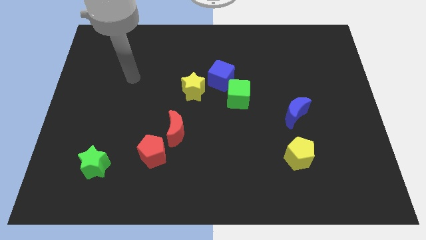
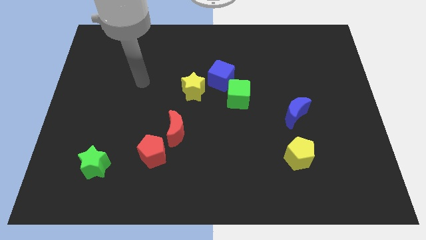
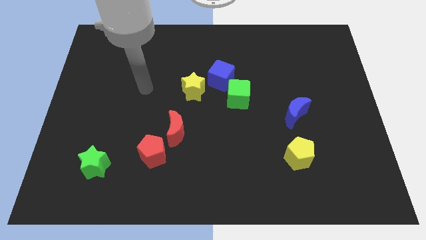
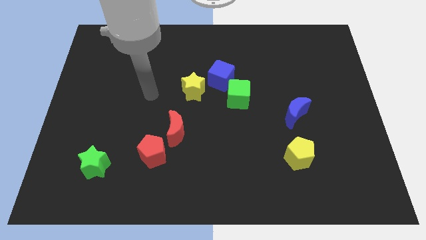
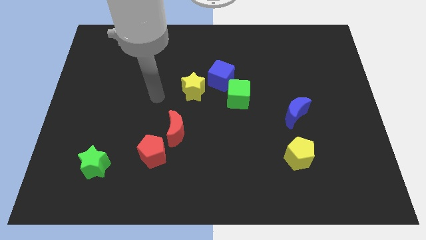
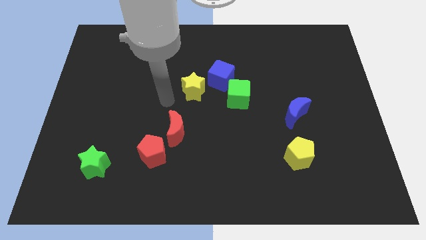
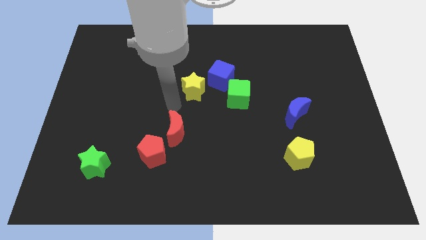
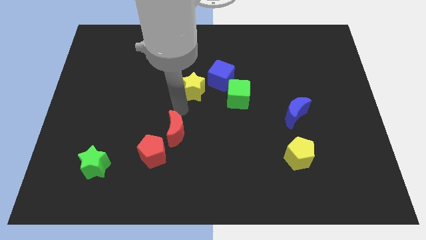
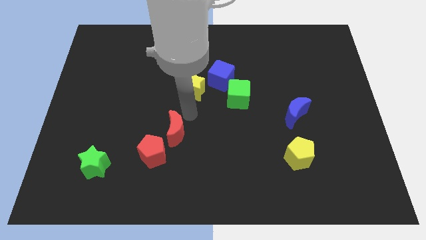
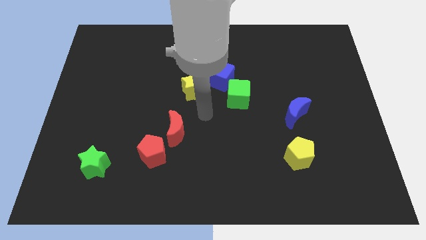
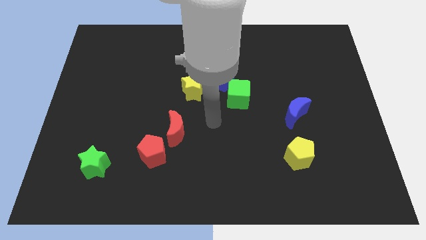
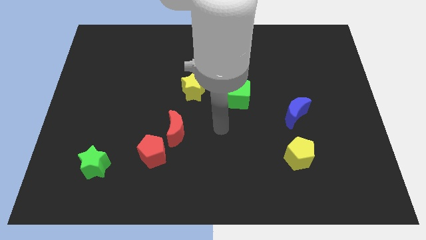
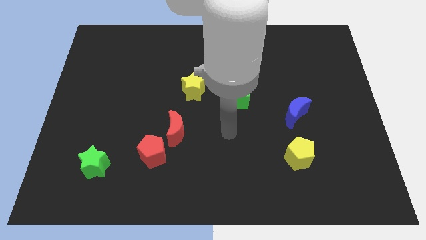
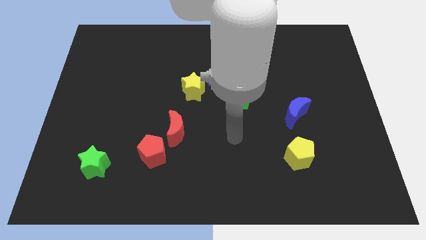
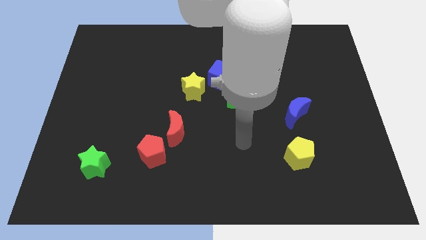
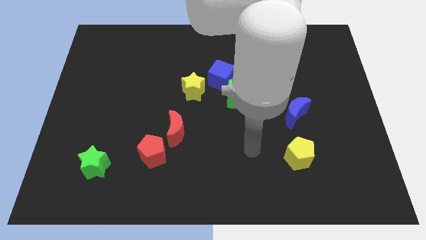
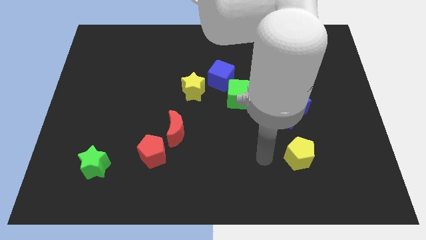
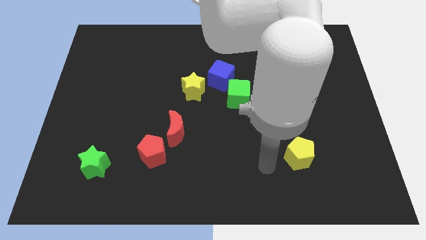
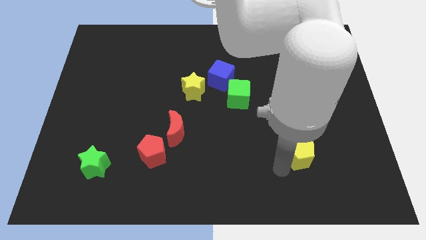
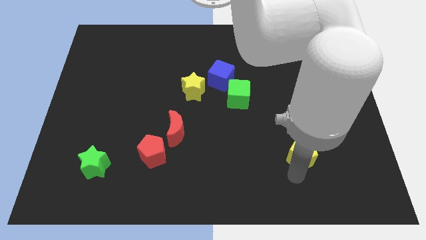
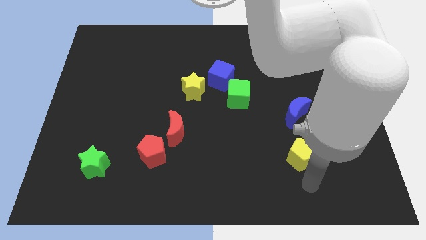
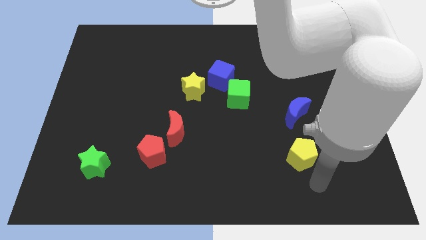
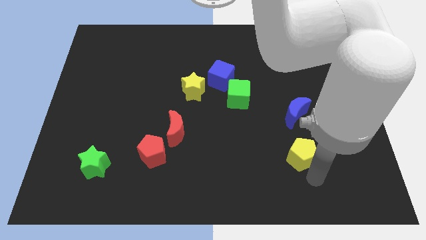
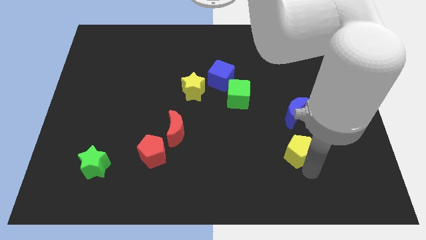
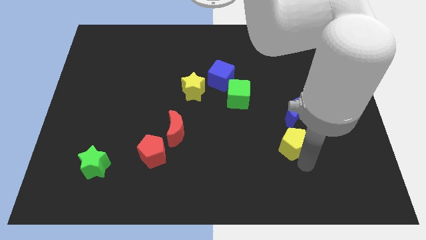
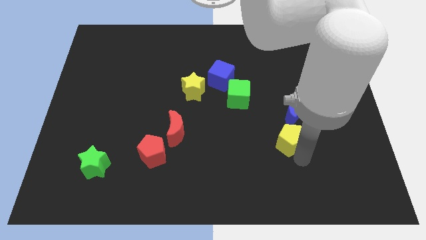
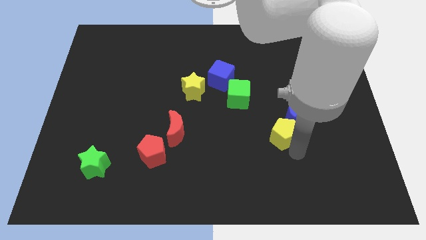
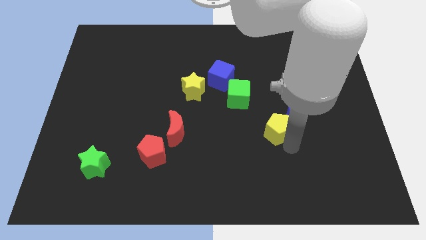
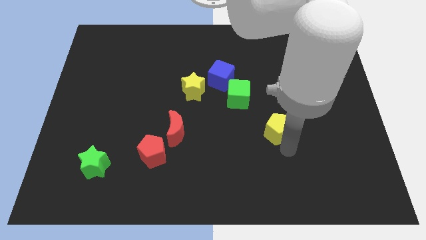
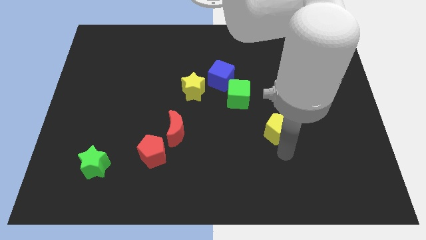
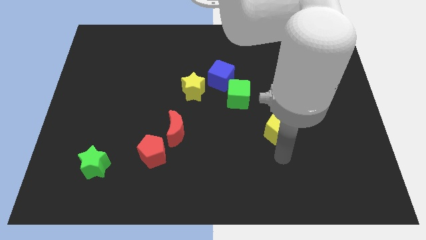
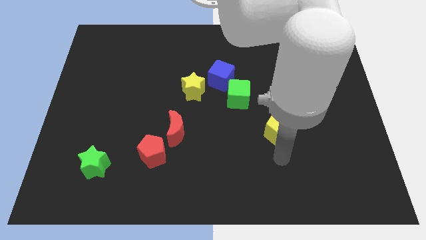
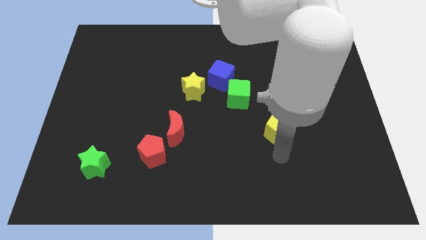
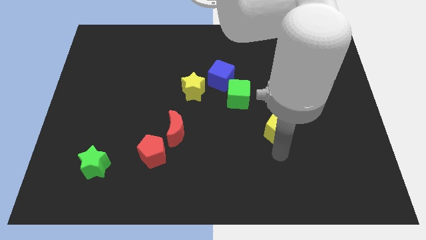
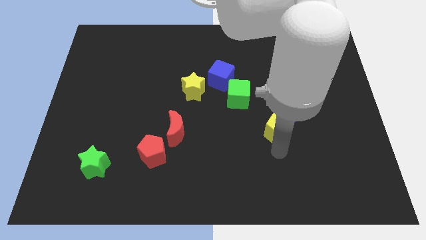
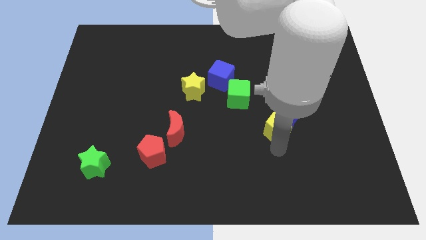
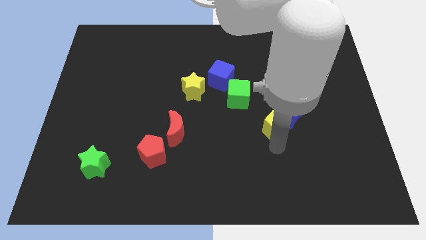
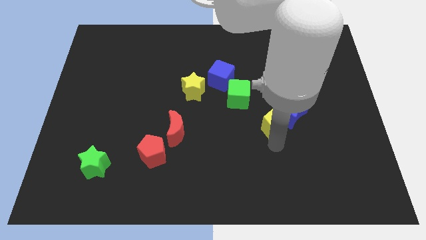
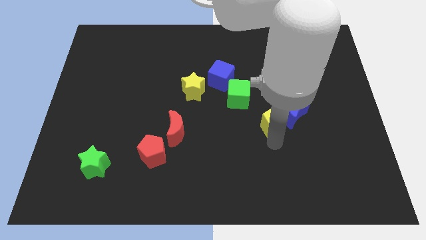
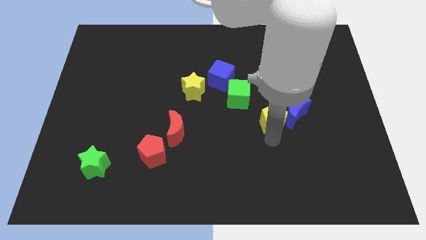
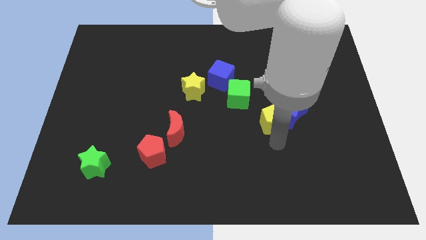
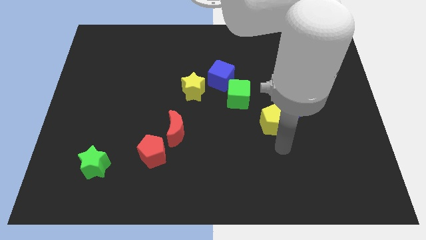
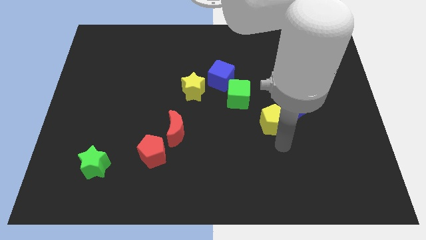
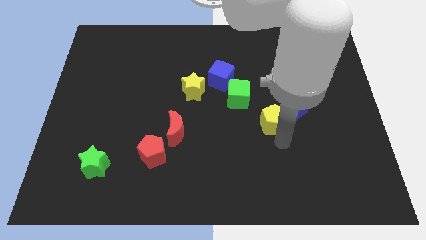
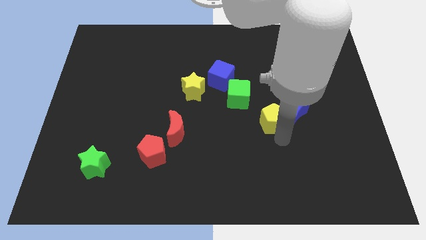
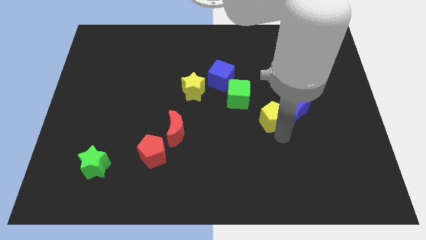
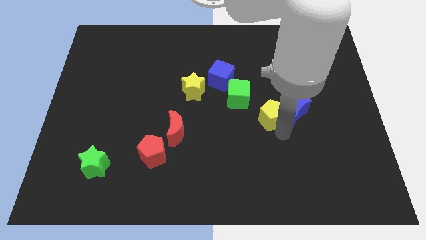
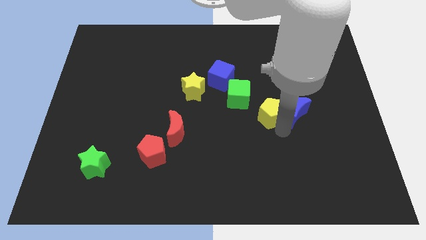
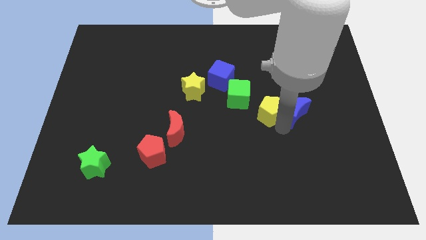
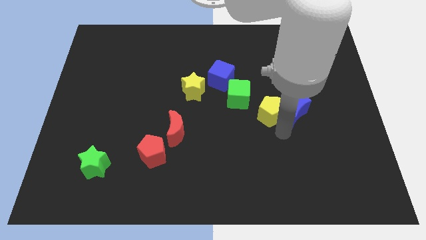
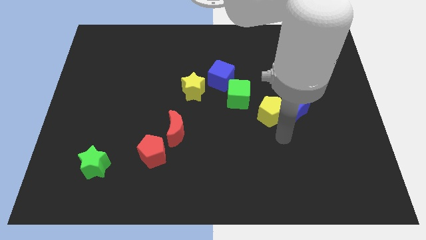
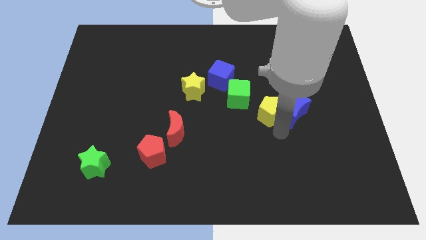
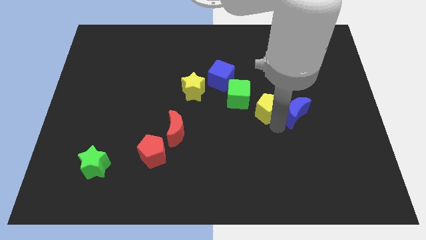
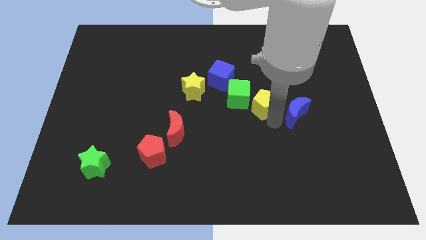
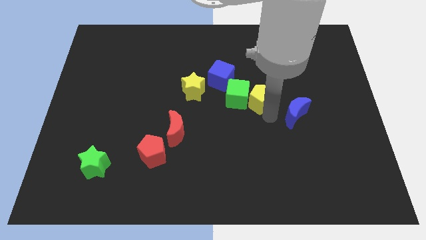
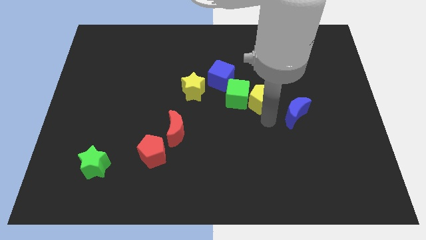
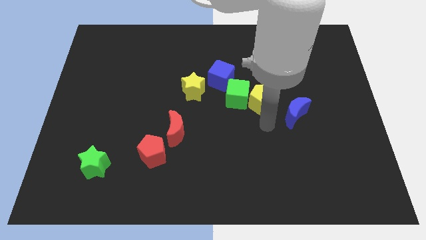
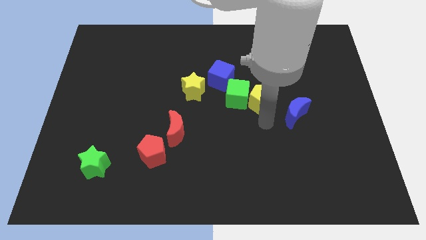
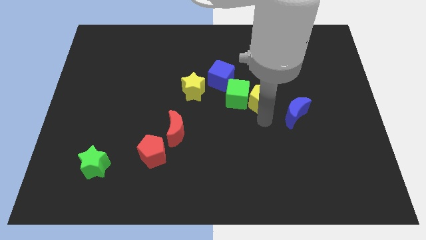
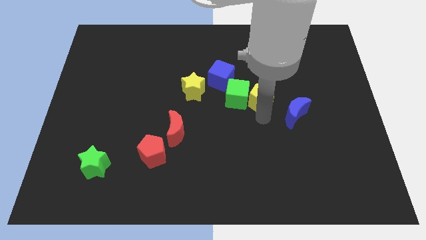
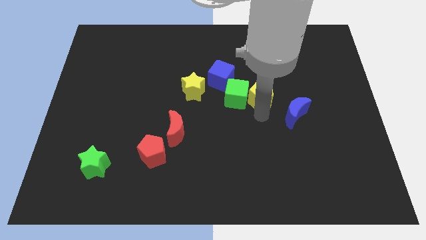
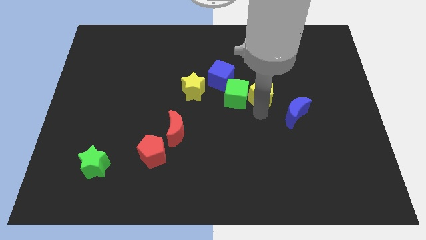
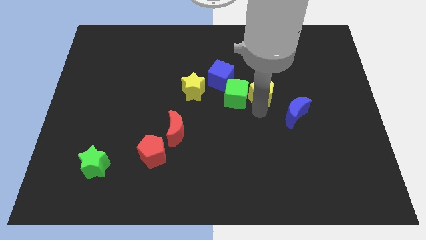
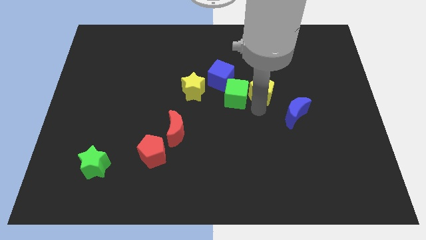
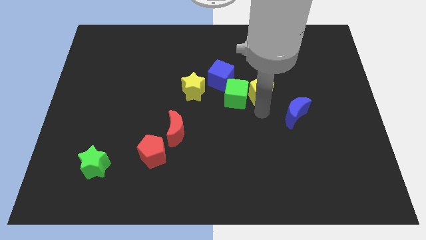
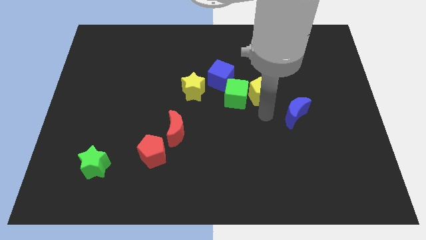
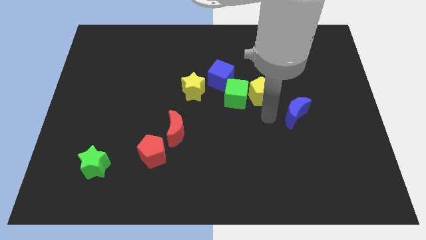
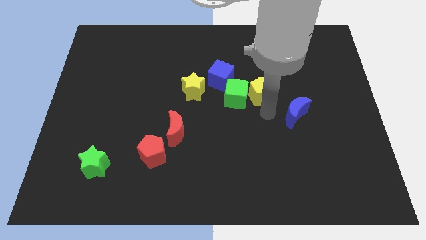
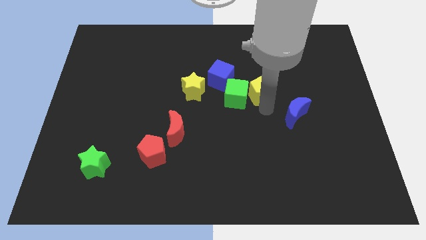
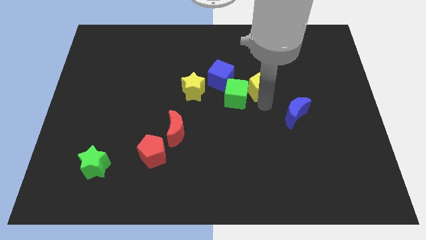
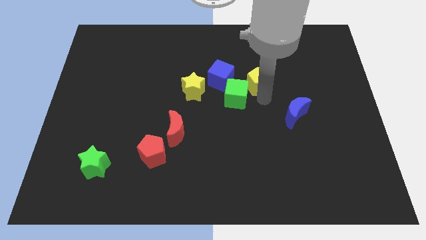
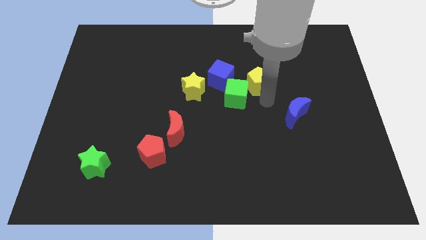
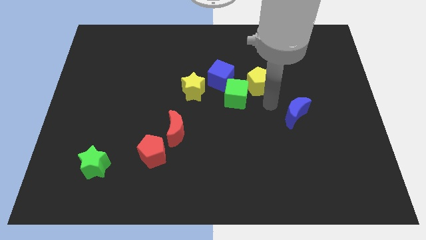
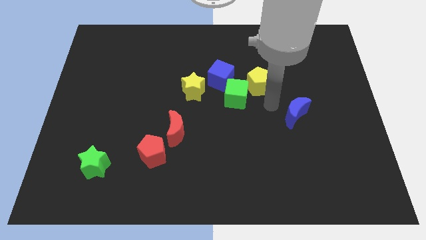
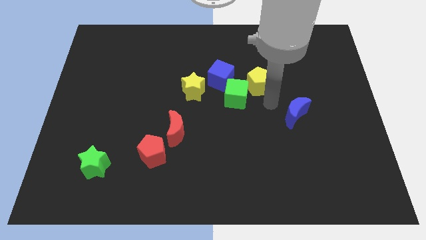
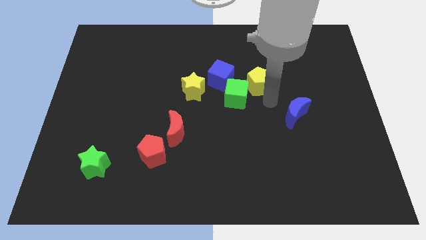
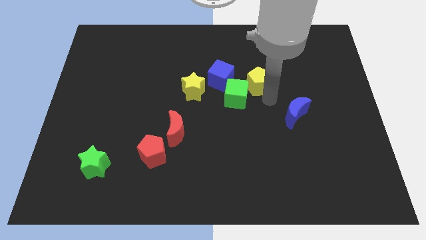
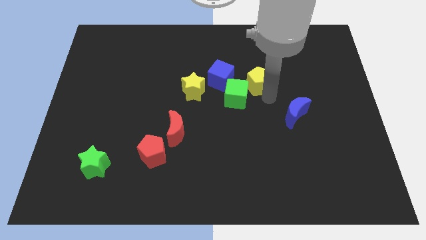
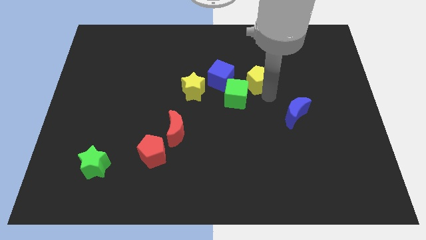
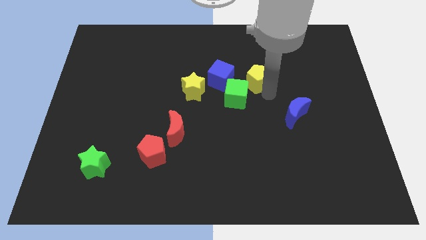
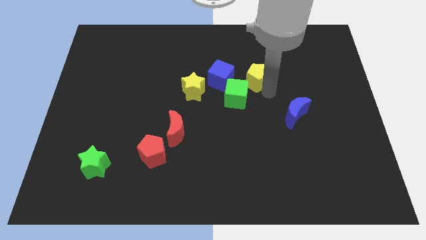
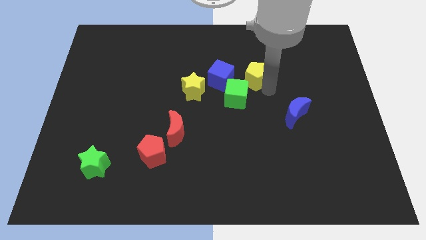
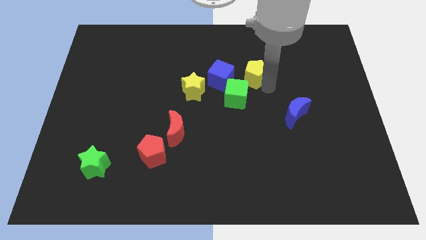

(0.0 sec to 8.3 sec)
move the yellow pentagon to the top side of the green cube
